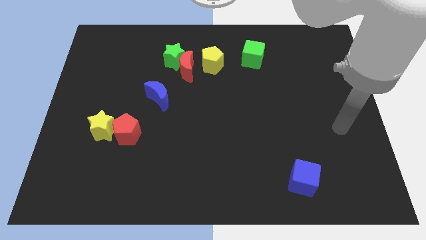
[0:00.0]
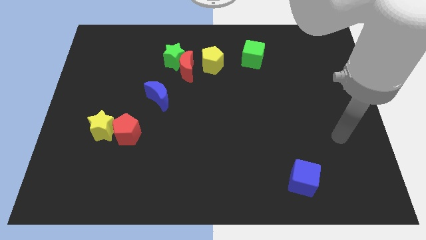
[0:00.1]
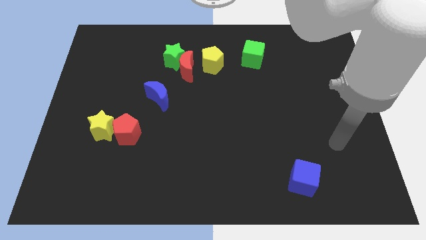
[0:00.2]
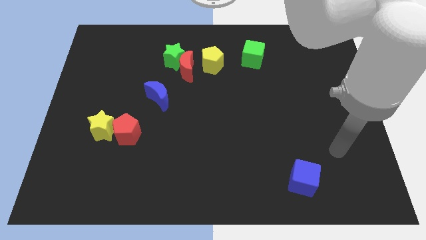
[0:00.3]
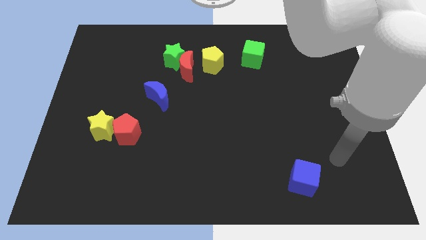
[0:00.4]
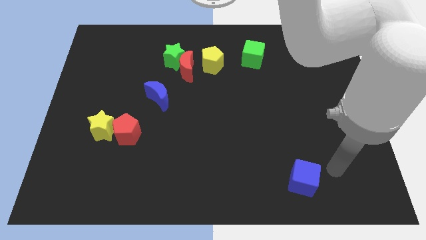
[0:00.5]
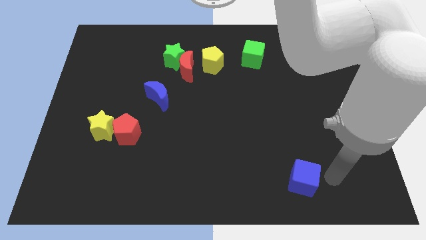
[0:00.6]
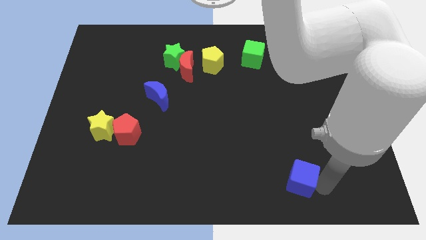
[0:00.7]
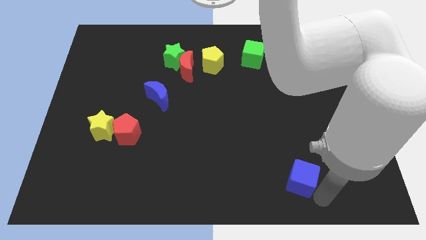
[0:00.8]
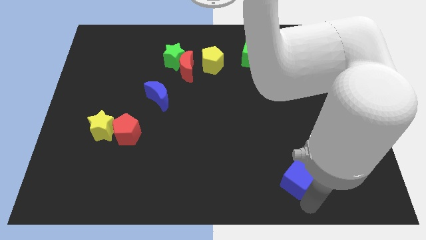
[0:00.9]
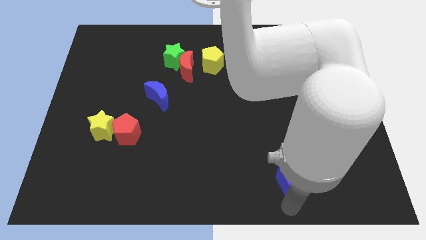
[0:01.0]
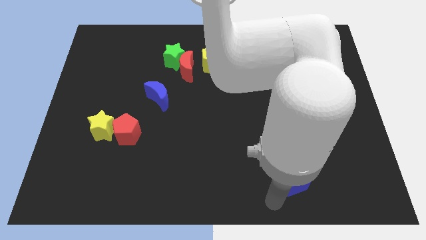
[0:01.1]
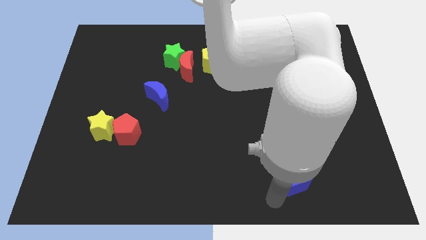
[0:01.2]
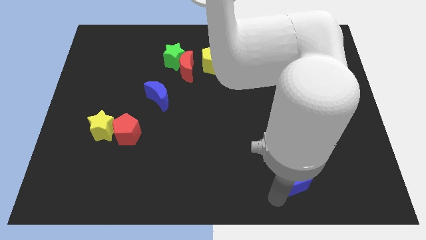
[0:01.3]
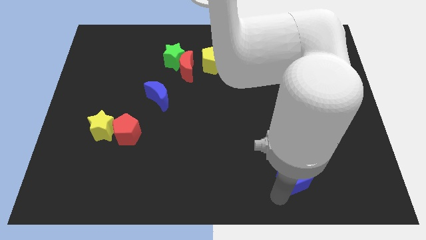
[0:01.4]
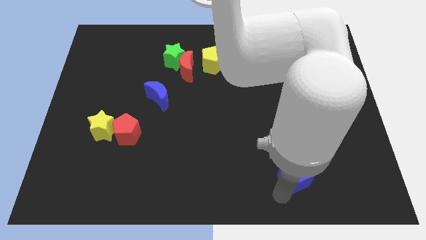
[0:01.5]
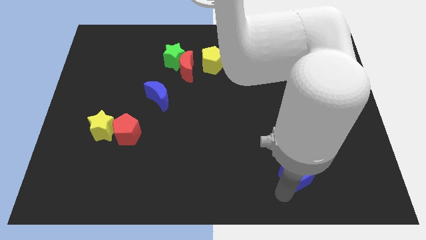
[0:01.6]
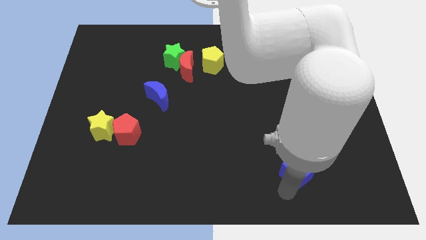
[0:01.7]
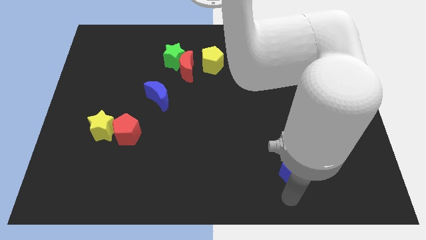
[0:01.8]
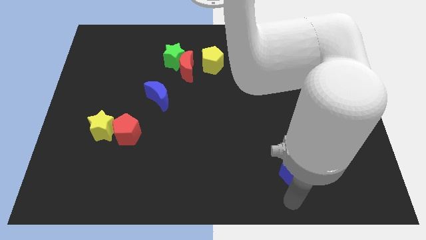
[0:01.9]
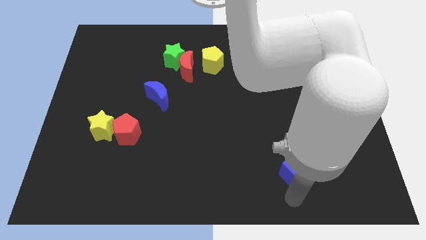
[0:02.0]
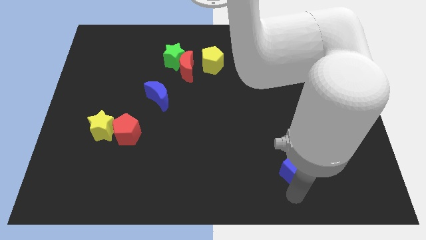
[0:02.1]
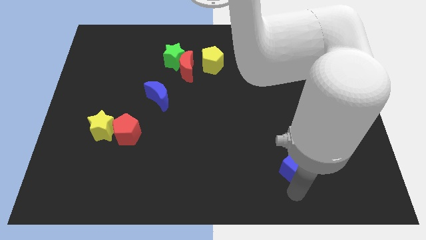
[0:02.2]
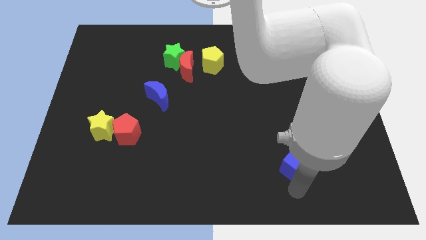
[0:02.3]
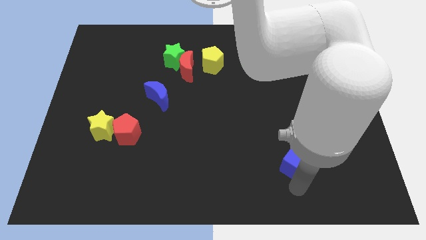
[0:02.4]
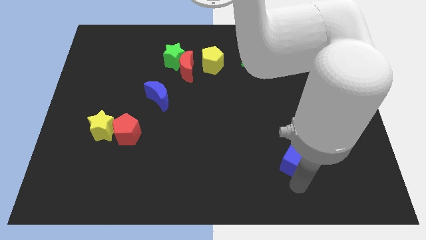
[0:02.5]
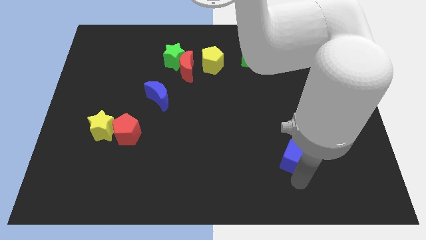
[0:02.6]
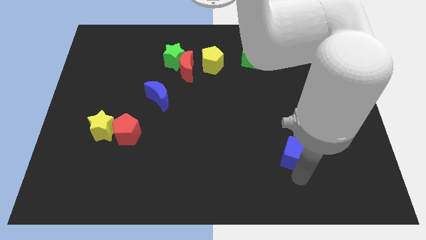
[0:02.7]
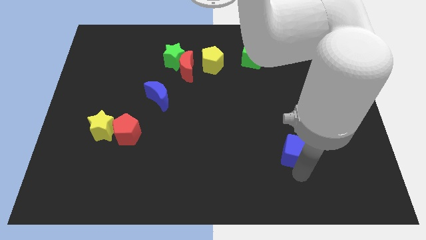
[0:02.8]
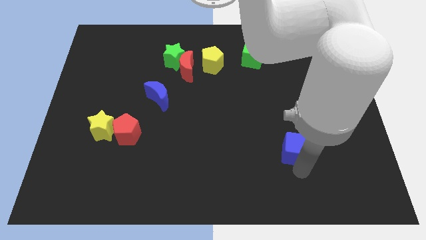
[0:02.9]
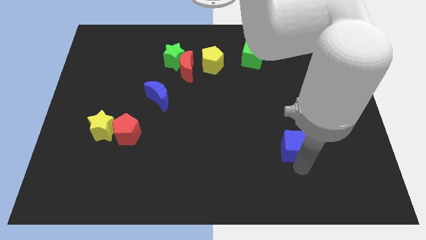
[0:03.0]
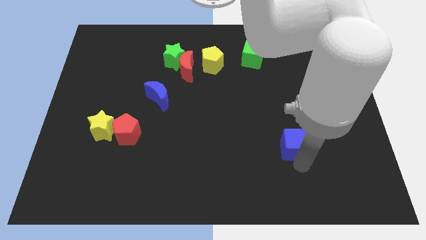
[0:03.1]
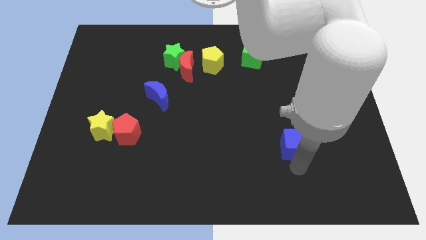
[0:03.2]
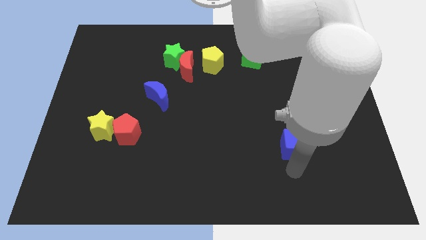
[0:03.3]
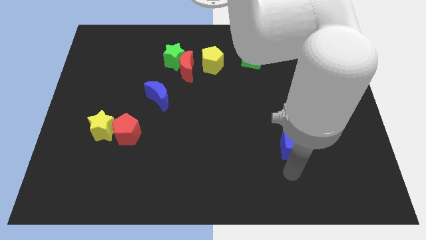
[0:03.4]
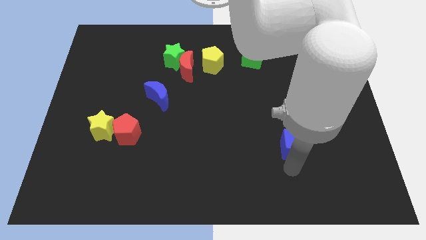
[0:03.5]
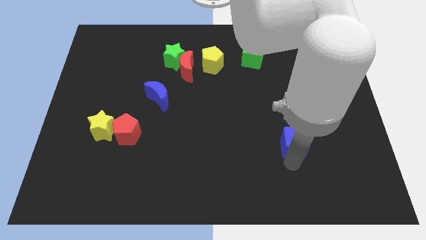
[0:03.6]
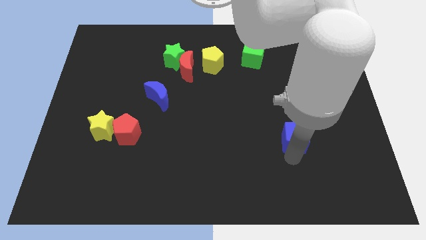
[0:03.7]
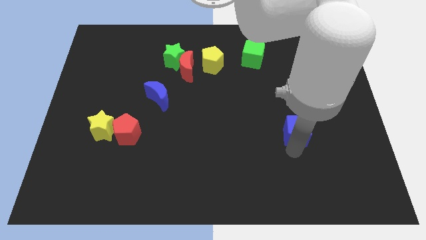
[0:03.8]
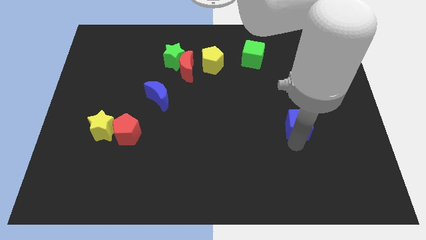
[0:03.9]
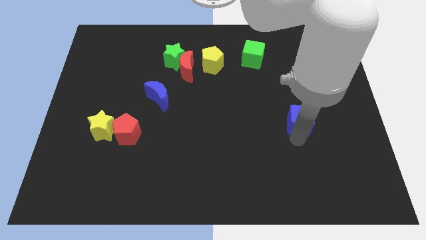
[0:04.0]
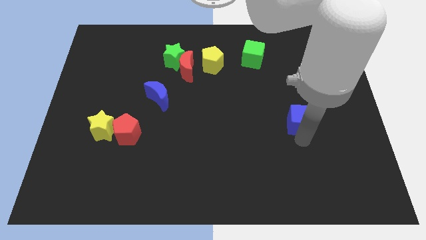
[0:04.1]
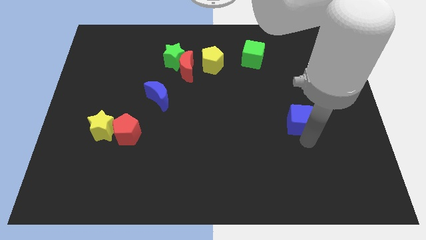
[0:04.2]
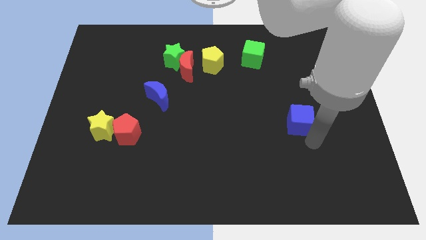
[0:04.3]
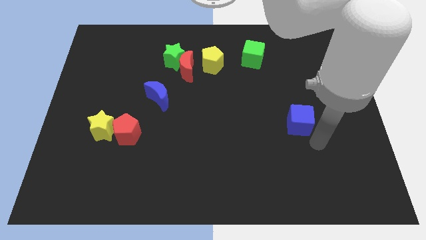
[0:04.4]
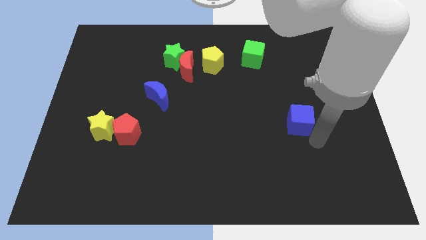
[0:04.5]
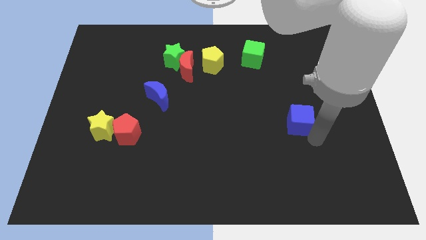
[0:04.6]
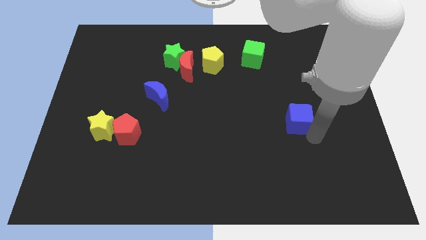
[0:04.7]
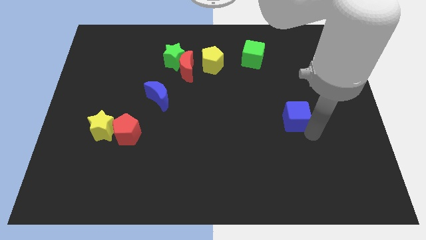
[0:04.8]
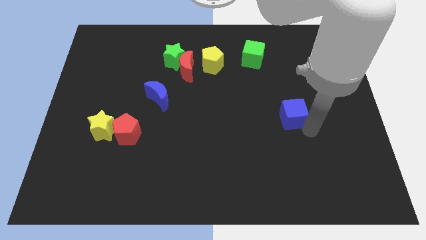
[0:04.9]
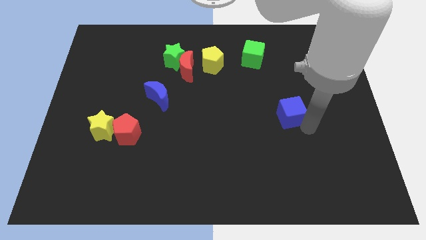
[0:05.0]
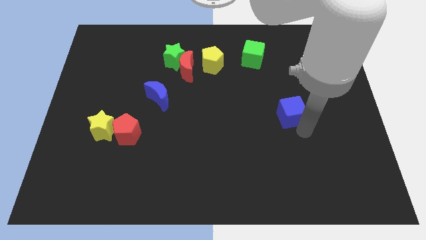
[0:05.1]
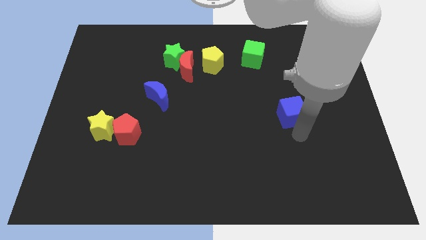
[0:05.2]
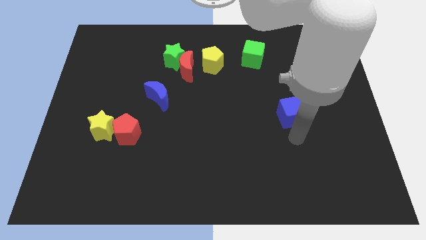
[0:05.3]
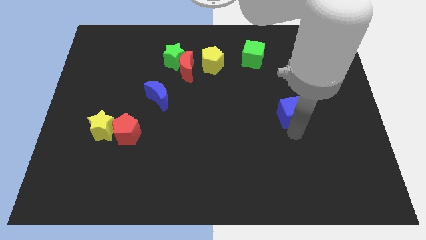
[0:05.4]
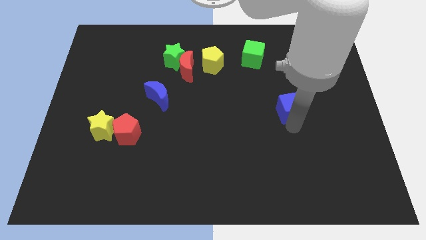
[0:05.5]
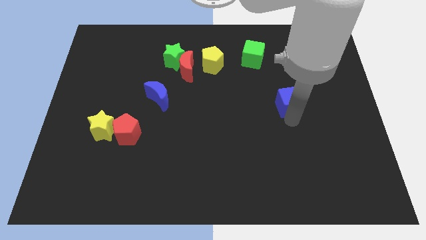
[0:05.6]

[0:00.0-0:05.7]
move the blue cube up

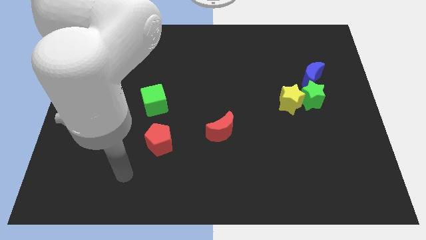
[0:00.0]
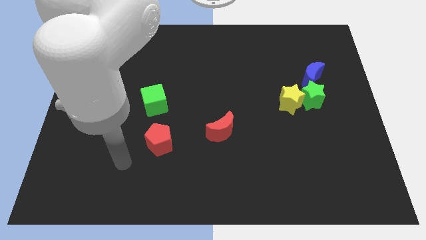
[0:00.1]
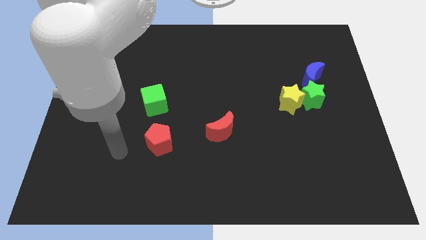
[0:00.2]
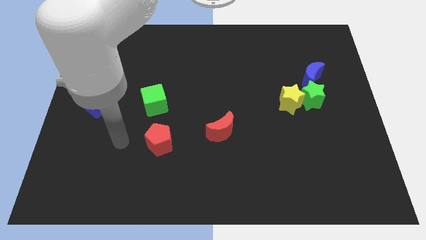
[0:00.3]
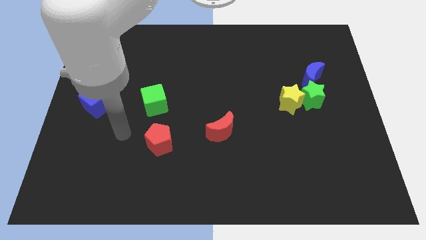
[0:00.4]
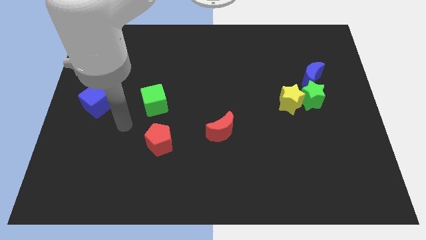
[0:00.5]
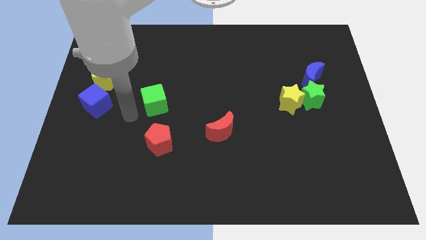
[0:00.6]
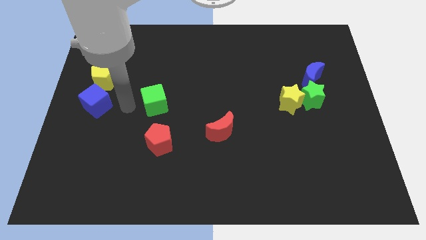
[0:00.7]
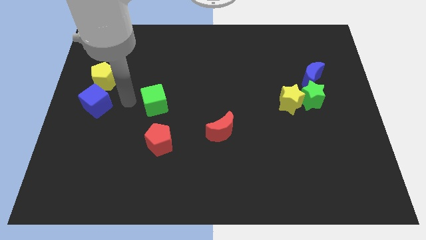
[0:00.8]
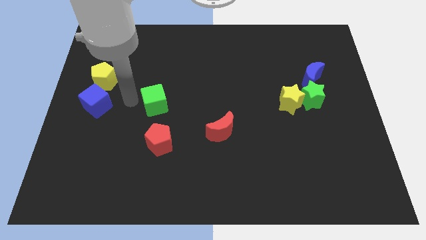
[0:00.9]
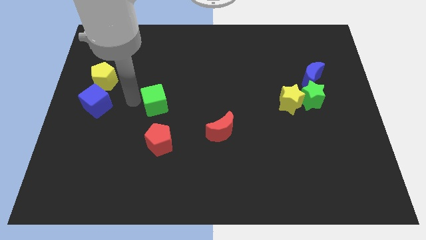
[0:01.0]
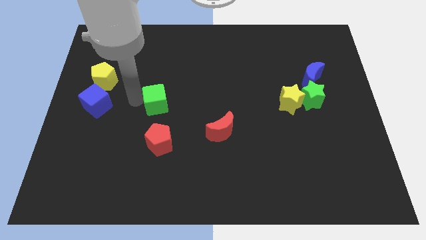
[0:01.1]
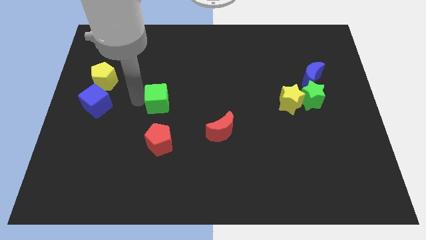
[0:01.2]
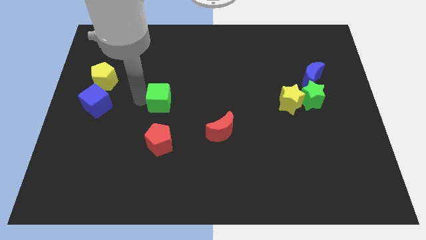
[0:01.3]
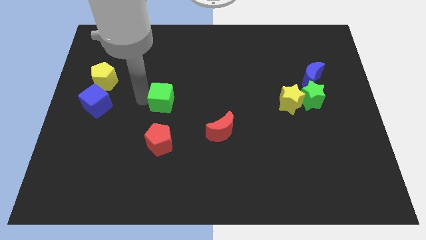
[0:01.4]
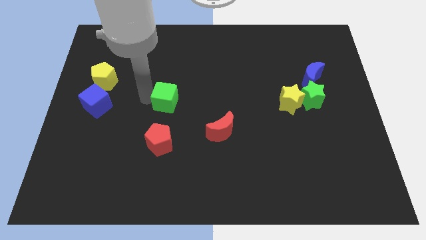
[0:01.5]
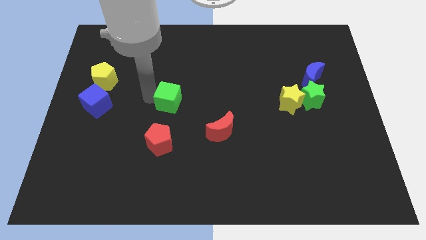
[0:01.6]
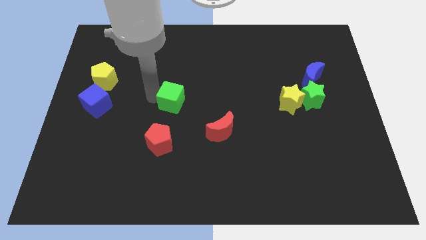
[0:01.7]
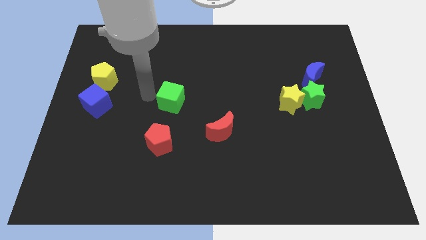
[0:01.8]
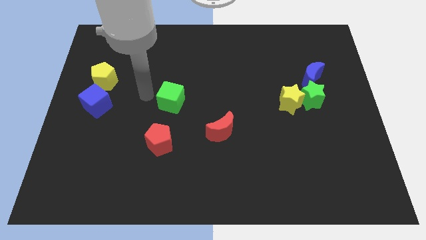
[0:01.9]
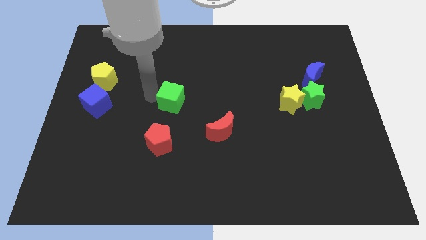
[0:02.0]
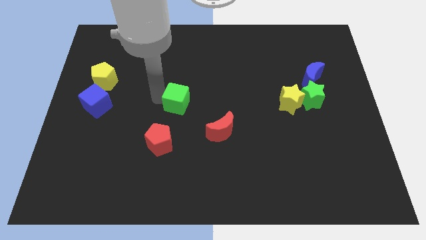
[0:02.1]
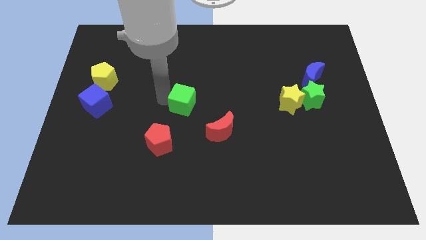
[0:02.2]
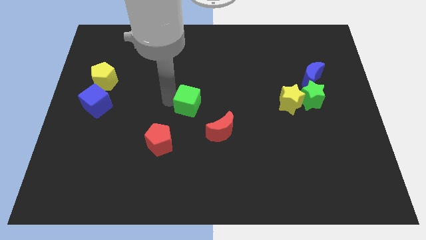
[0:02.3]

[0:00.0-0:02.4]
push the green cube somewhat to the right

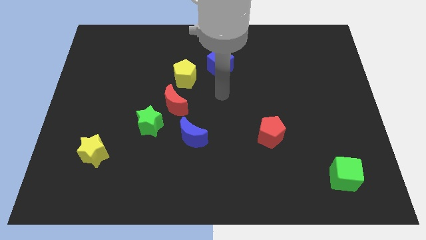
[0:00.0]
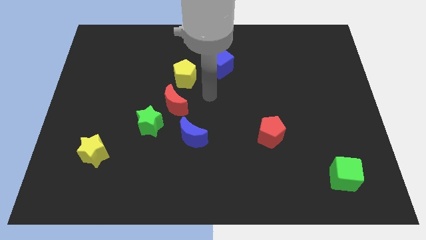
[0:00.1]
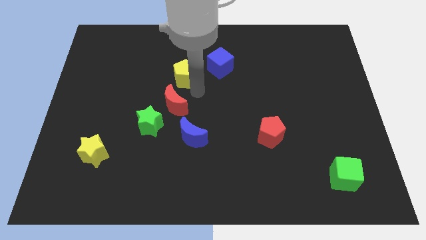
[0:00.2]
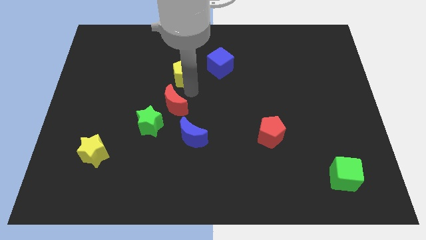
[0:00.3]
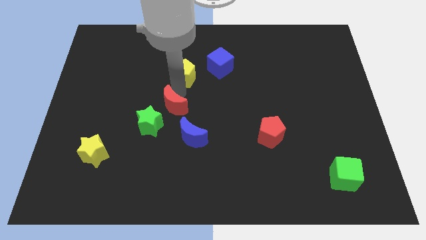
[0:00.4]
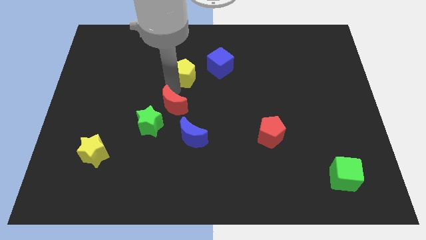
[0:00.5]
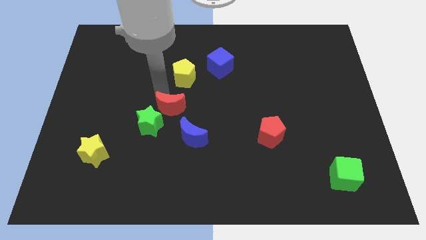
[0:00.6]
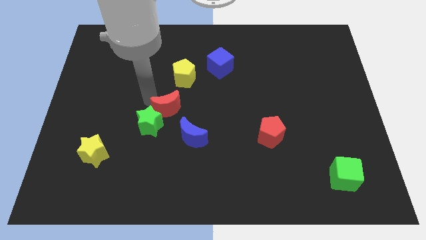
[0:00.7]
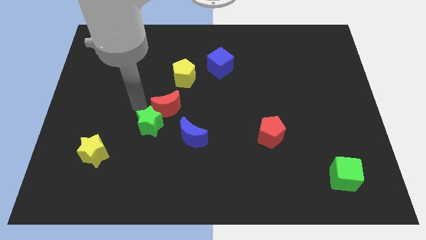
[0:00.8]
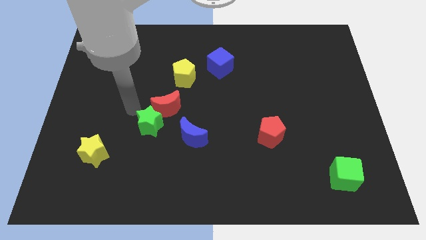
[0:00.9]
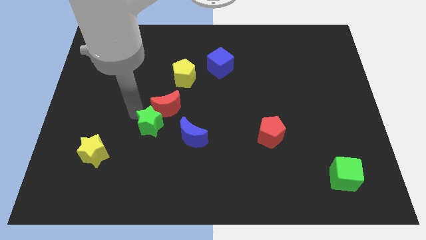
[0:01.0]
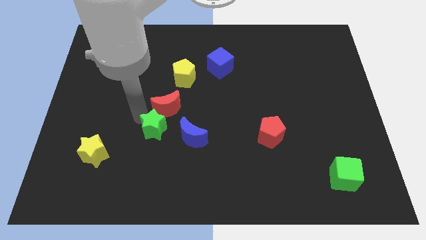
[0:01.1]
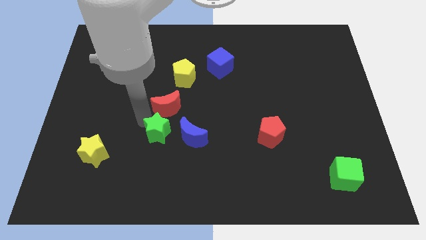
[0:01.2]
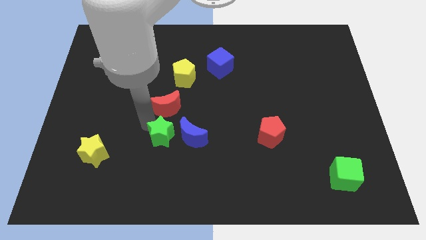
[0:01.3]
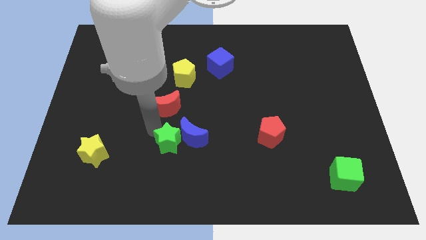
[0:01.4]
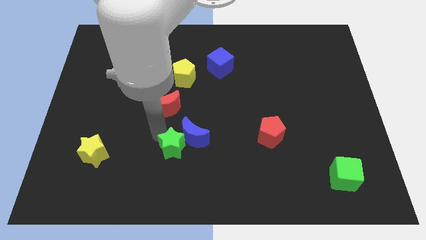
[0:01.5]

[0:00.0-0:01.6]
move the green star diagonally downwards and right somewhat
